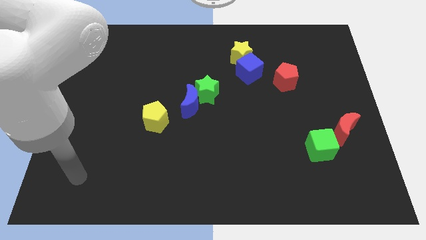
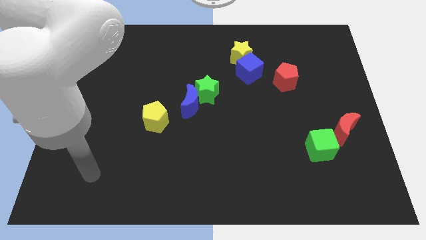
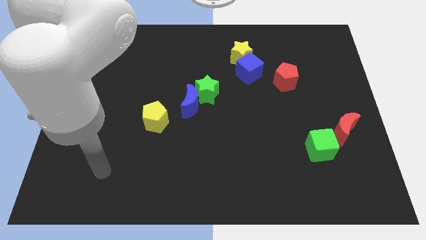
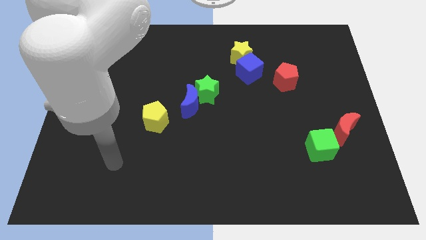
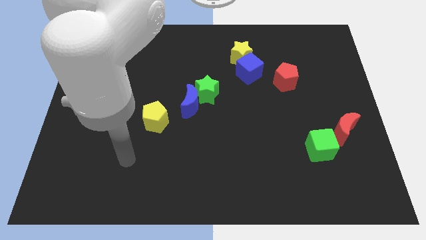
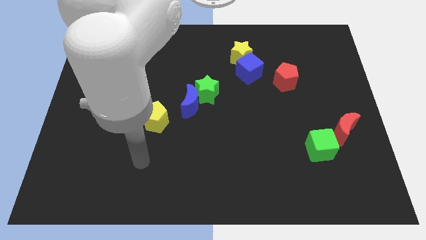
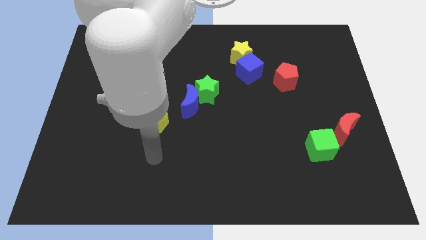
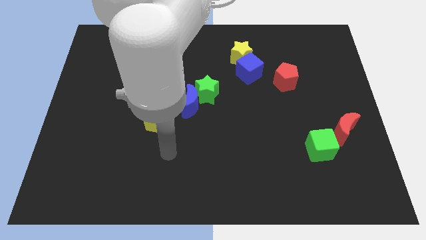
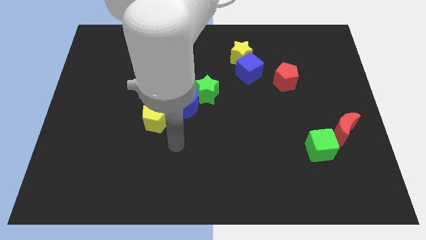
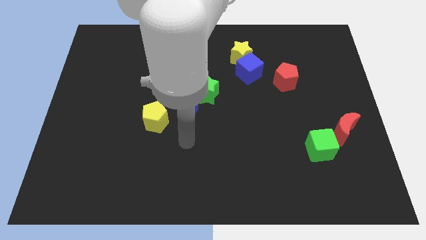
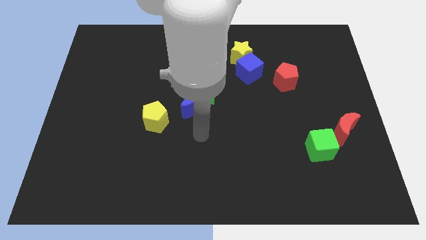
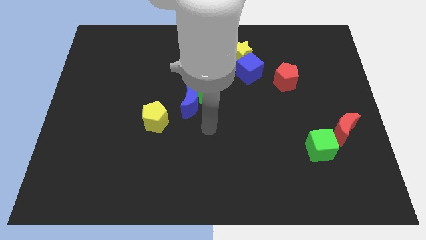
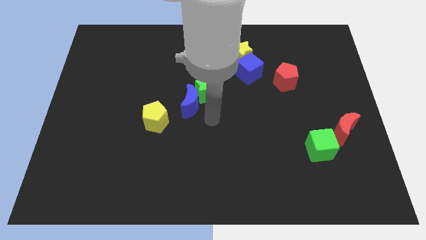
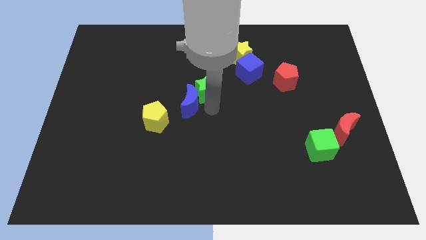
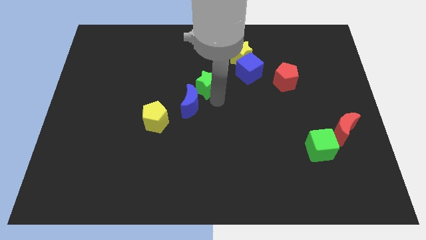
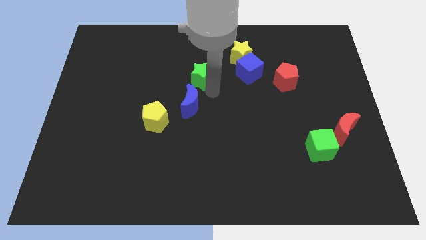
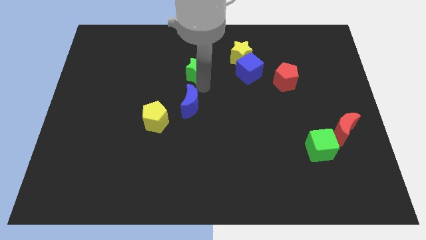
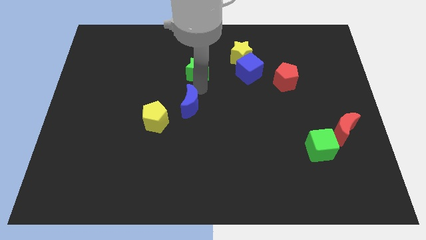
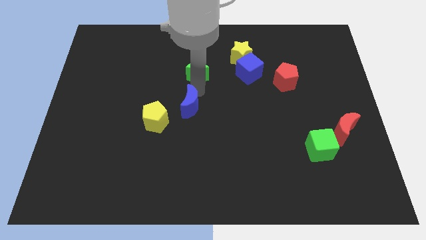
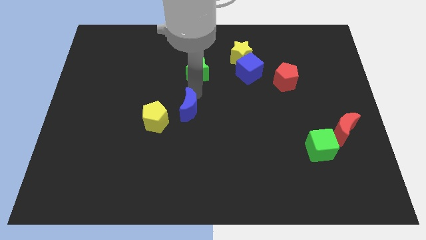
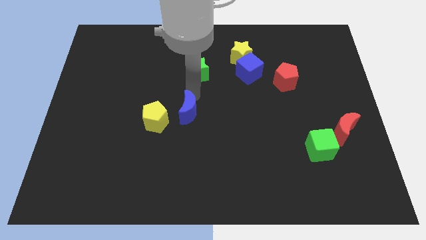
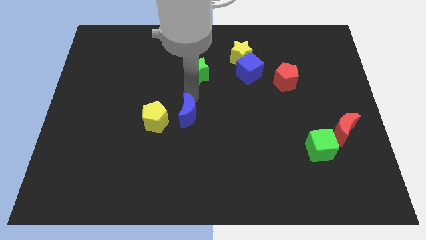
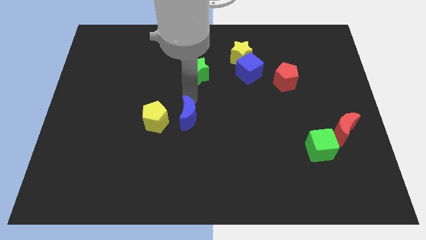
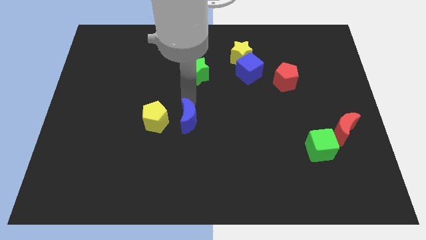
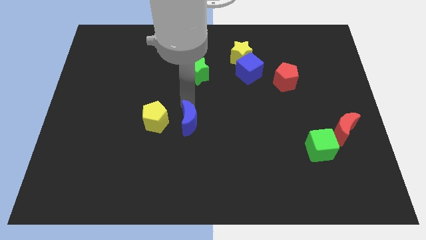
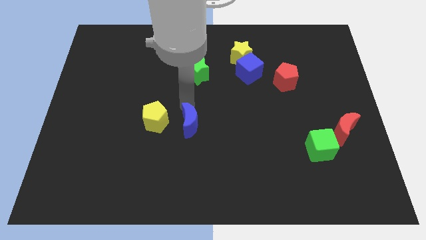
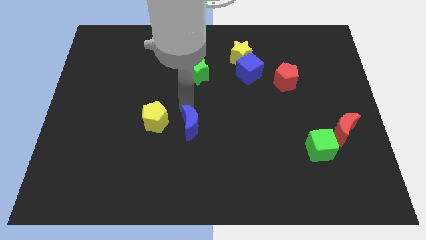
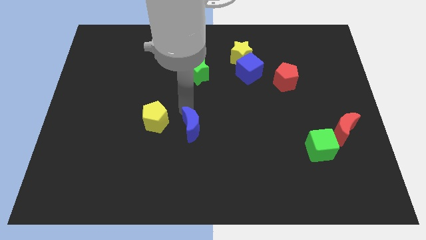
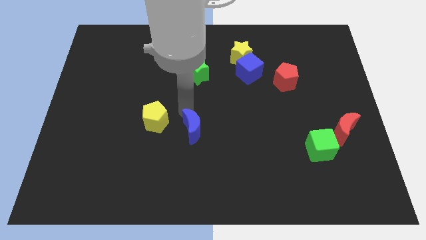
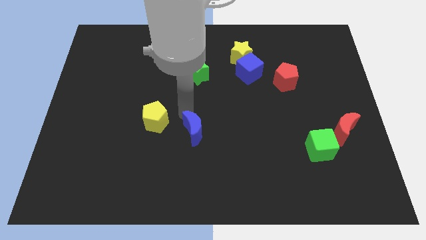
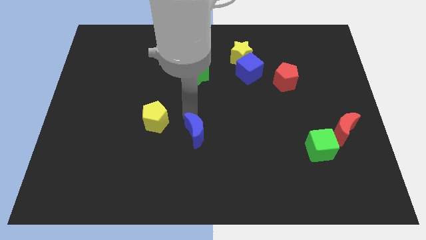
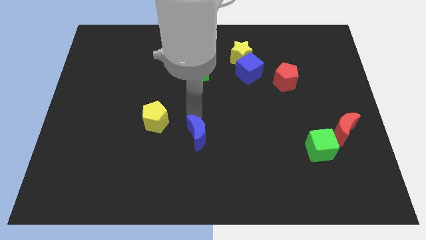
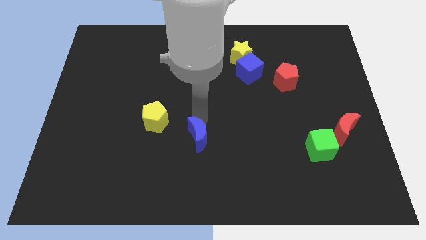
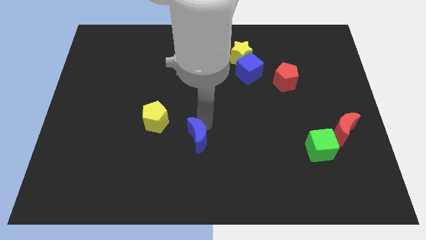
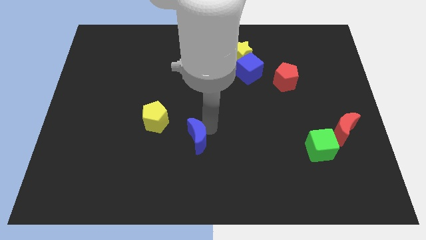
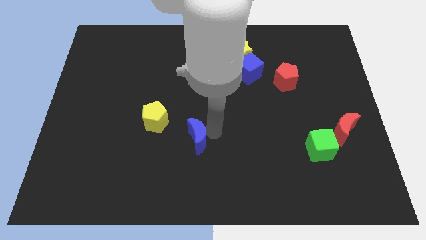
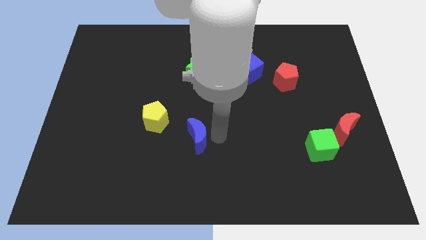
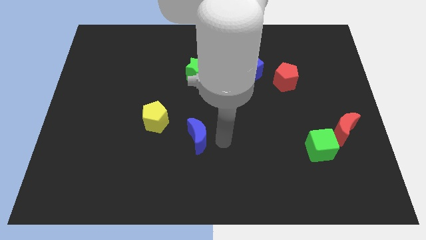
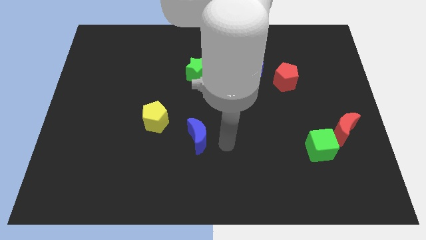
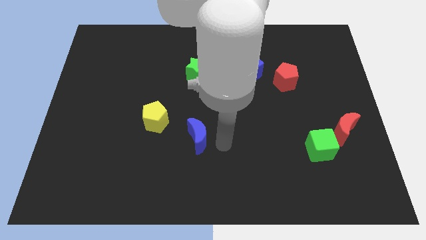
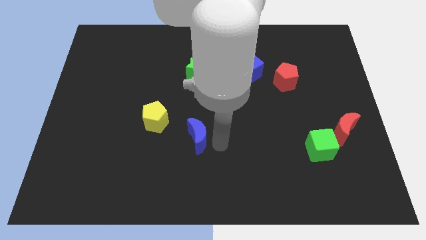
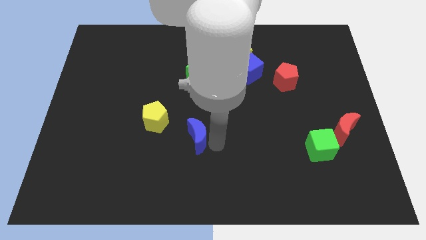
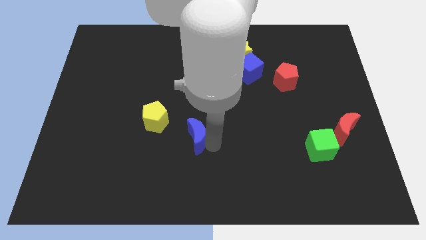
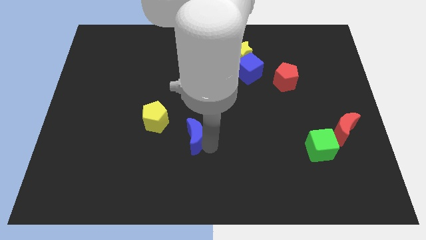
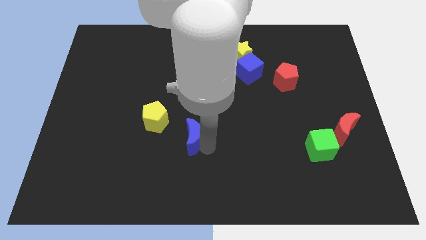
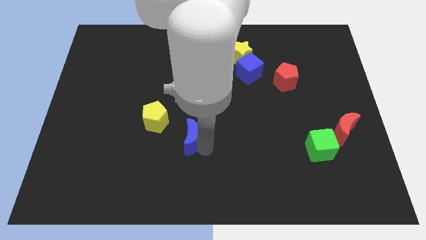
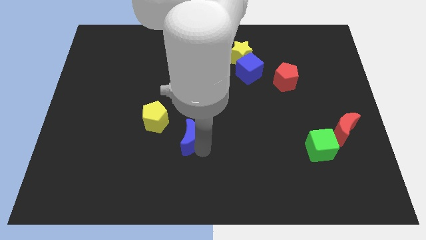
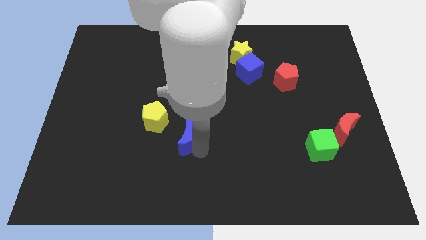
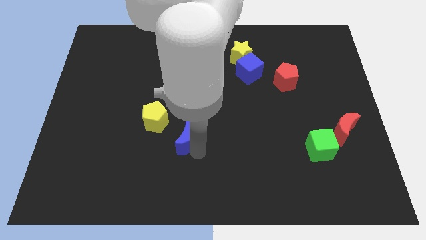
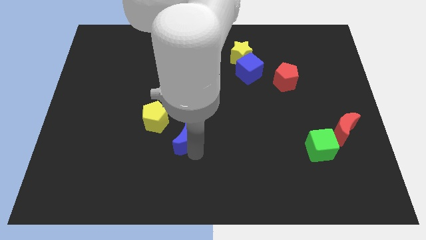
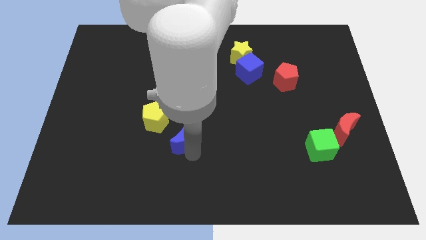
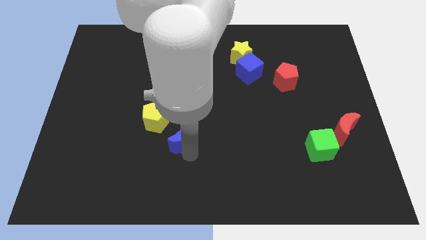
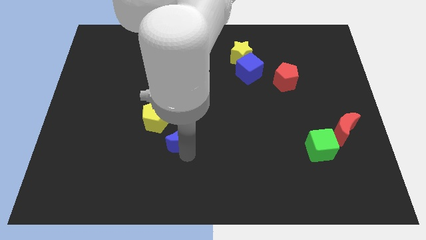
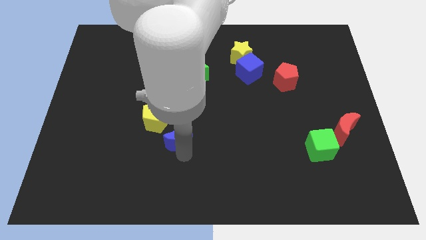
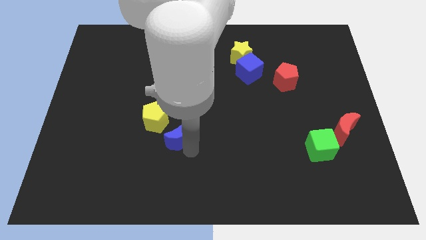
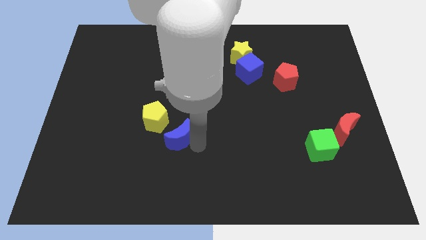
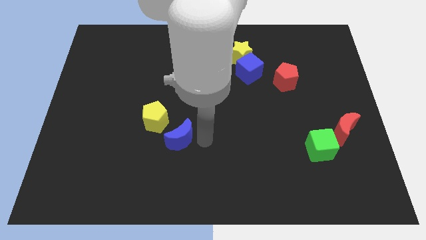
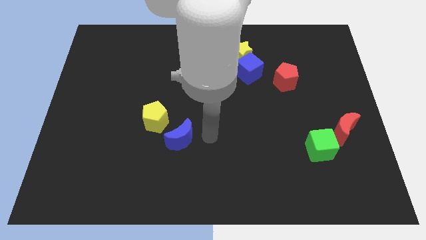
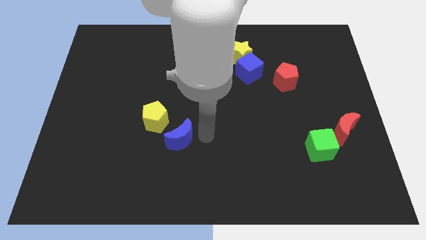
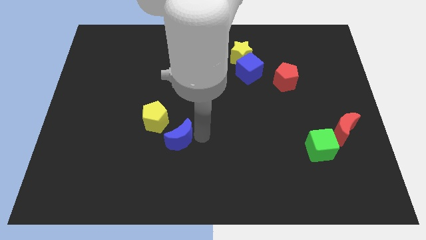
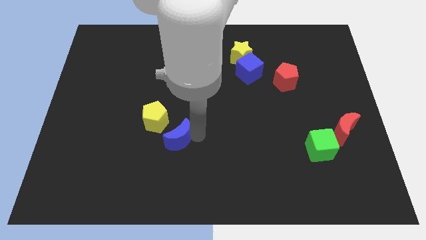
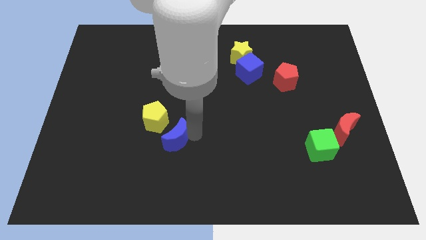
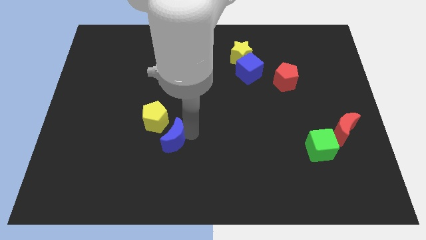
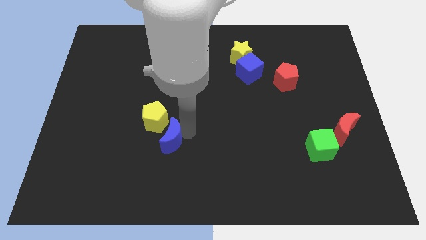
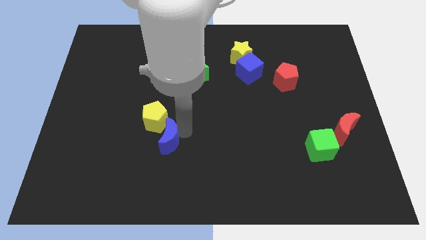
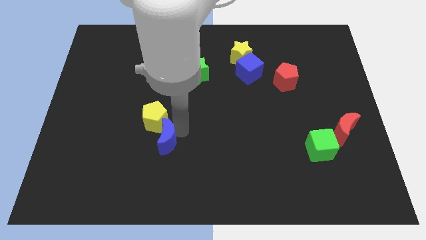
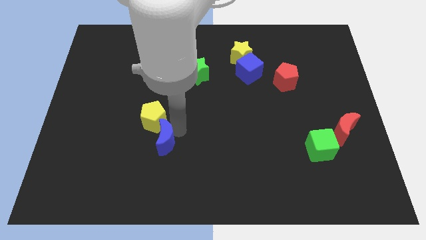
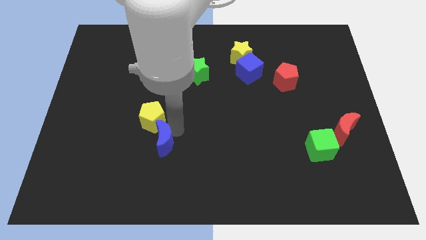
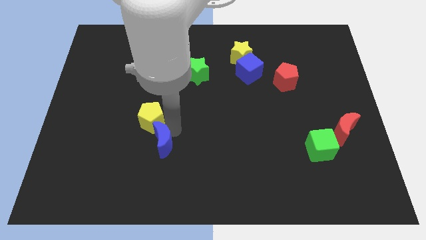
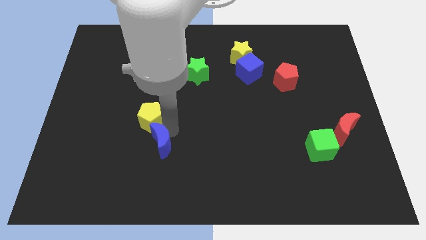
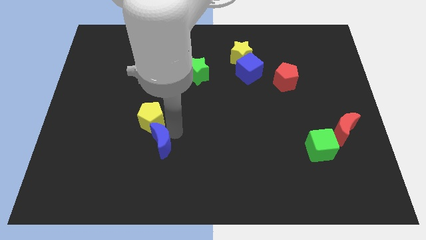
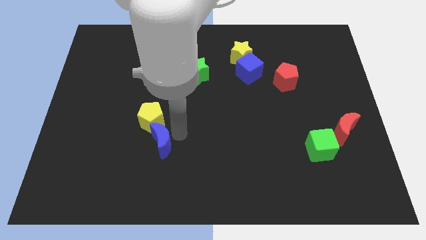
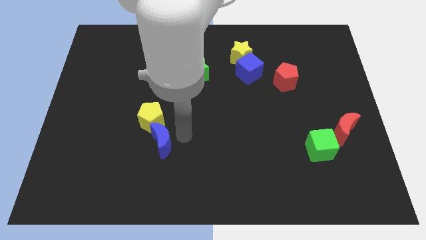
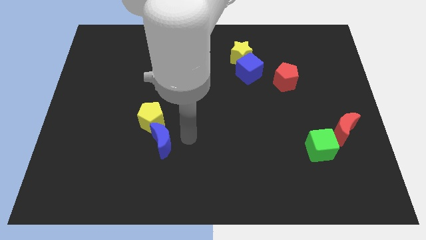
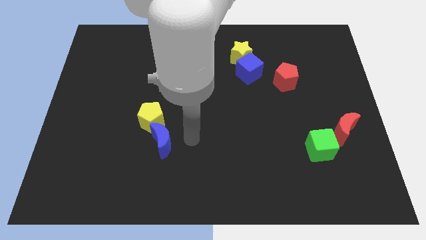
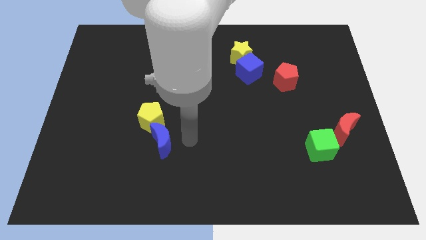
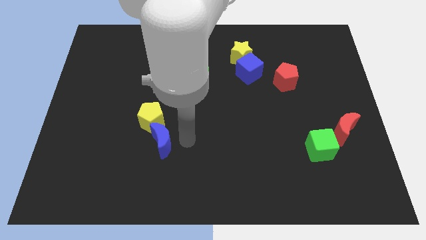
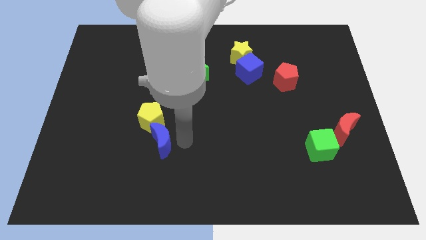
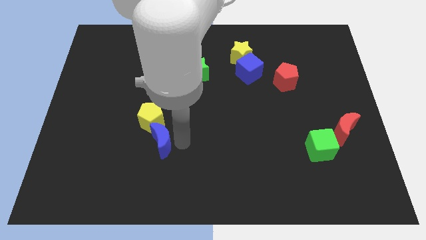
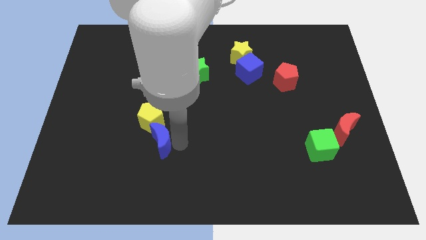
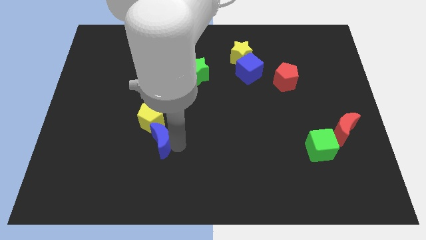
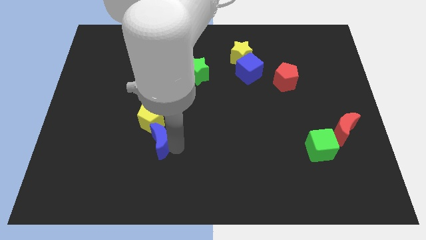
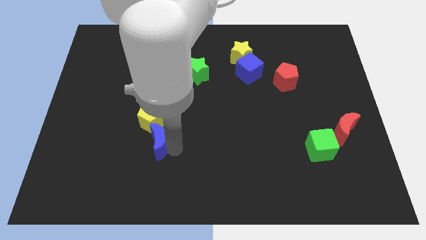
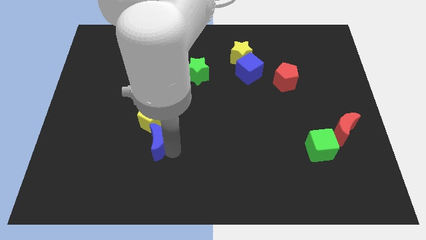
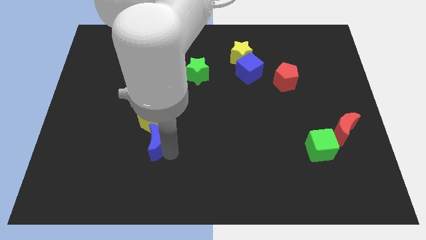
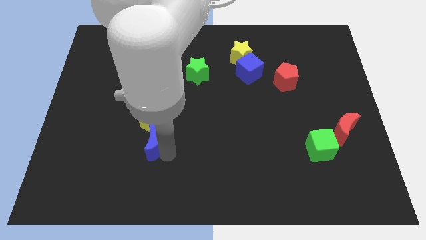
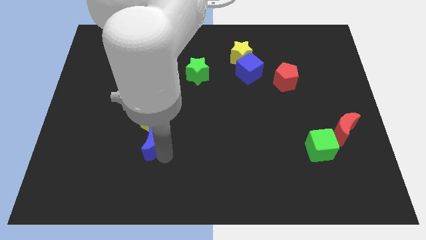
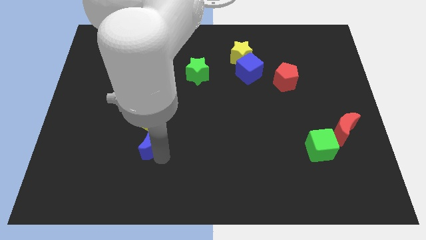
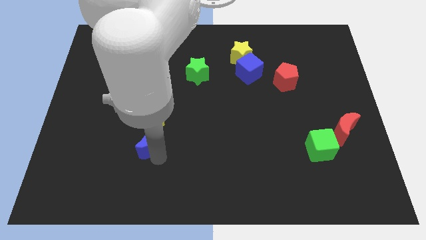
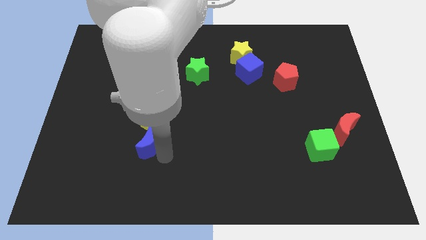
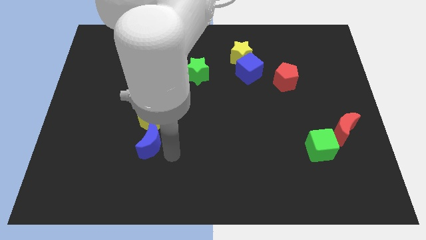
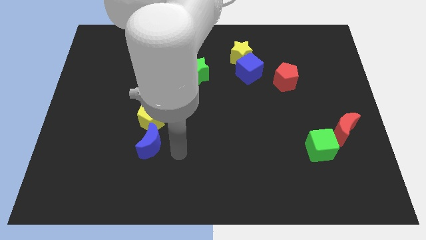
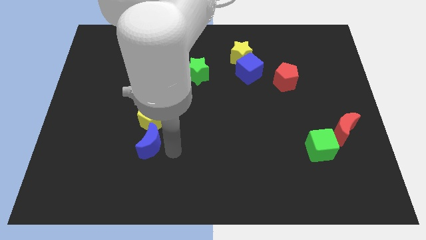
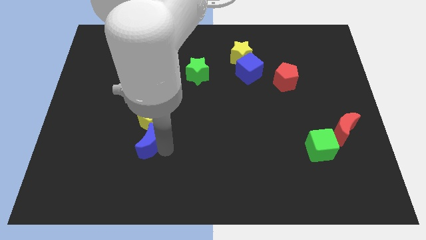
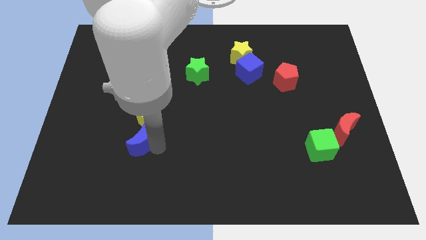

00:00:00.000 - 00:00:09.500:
move the blue moon diagonally down and to the left of the yellow pentagon
